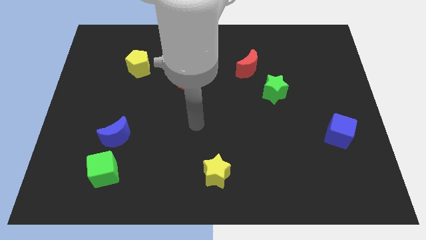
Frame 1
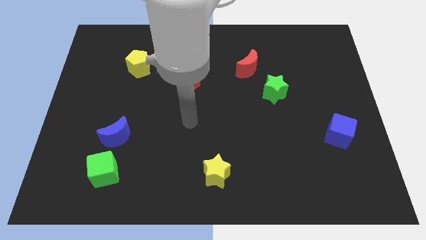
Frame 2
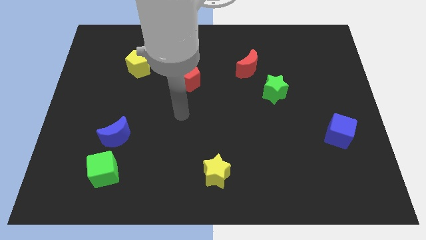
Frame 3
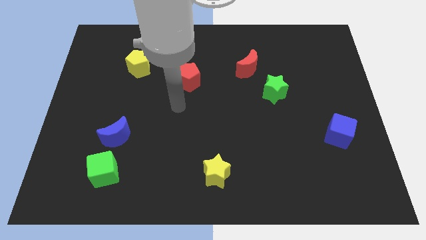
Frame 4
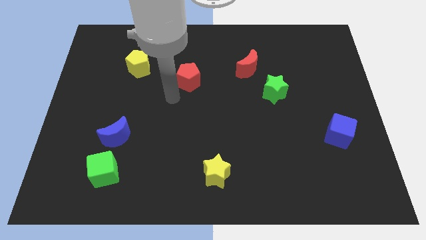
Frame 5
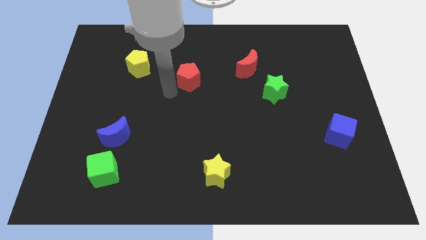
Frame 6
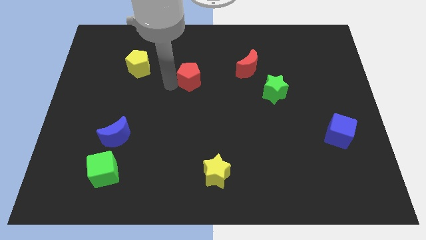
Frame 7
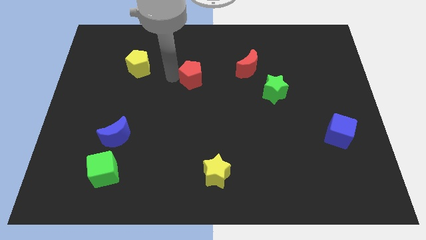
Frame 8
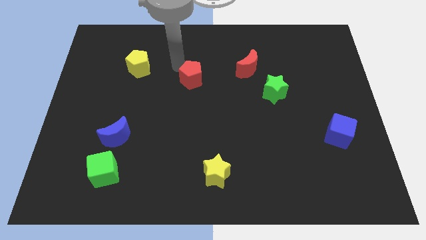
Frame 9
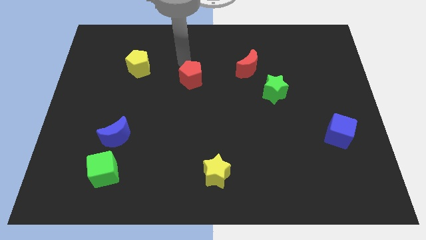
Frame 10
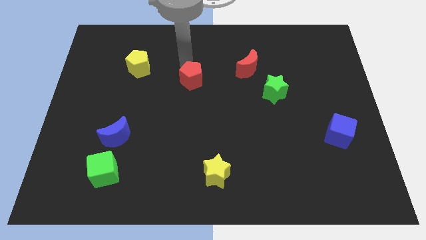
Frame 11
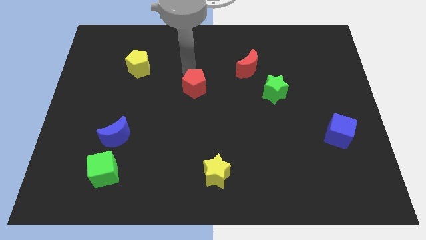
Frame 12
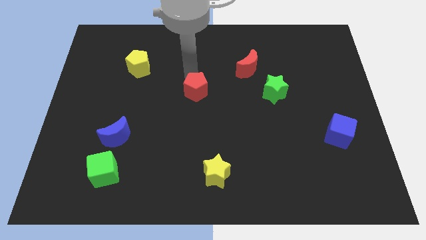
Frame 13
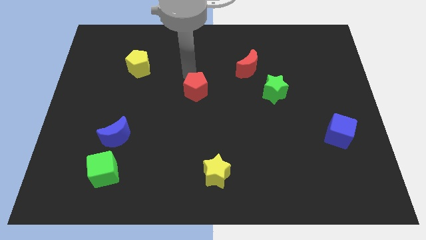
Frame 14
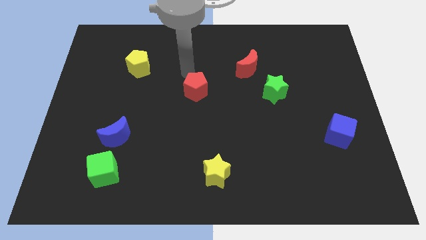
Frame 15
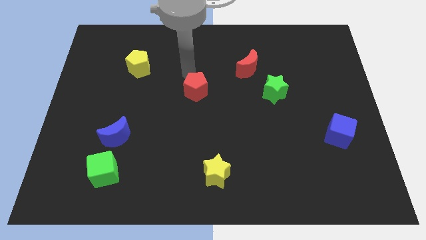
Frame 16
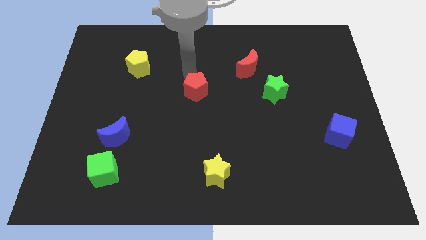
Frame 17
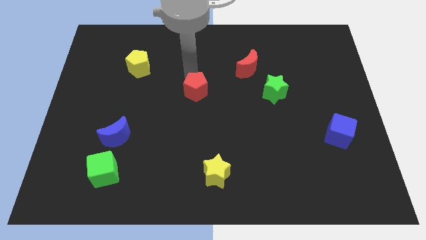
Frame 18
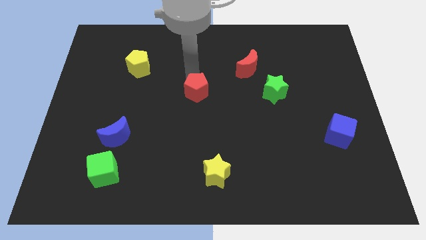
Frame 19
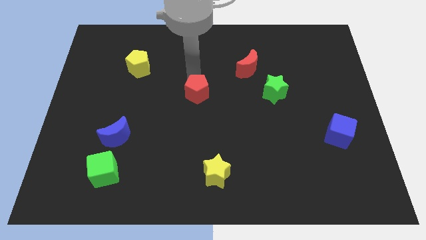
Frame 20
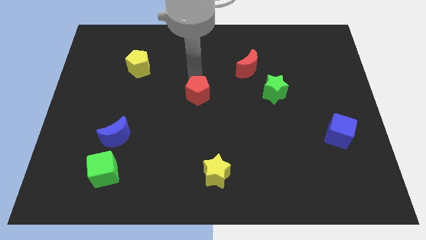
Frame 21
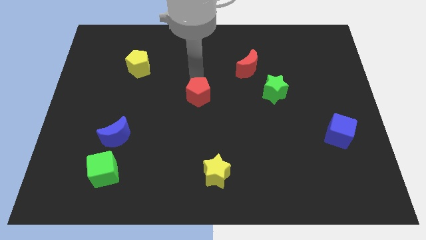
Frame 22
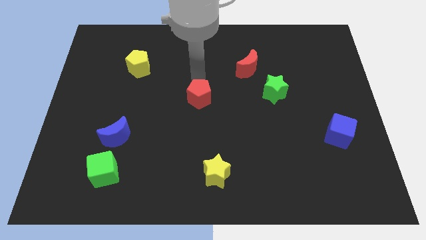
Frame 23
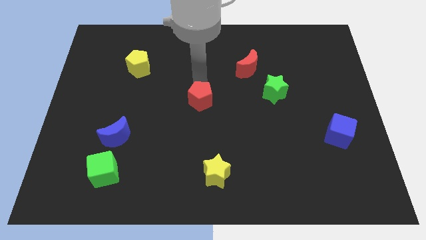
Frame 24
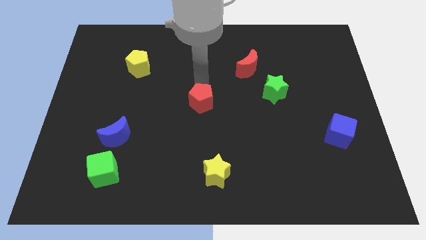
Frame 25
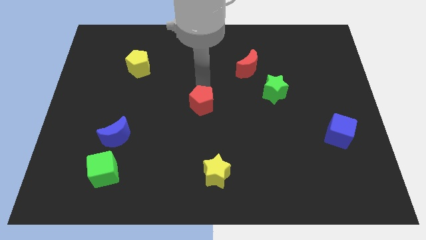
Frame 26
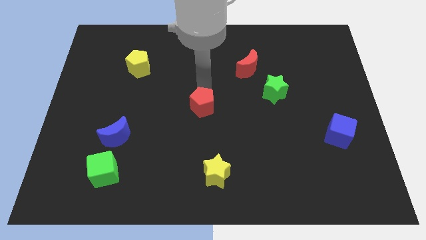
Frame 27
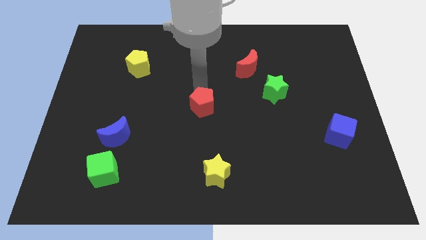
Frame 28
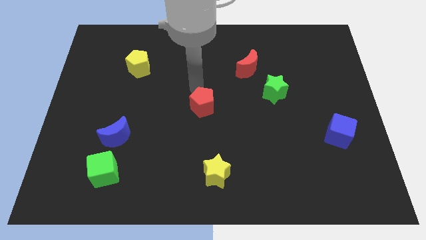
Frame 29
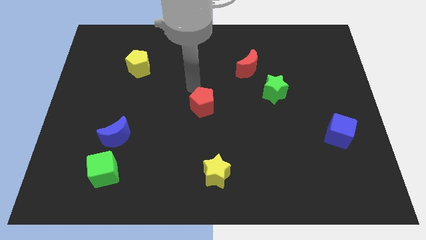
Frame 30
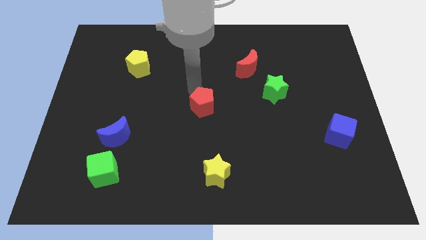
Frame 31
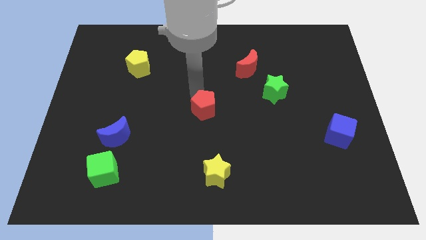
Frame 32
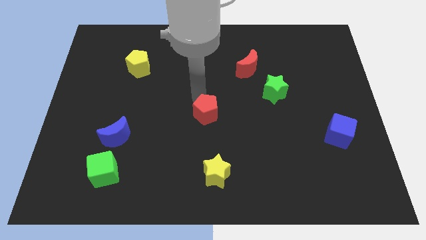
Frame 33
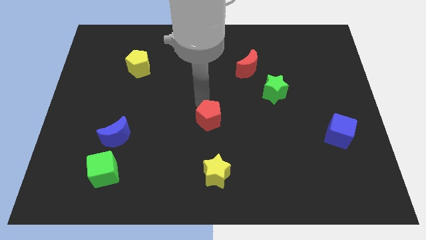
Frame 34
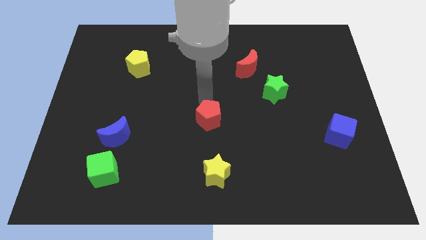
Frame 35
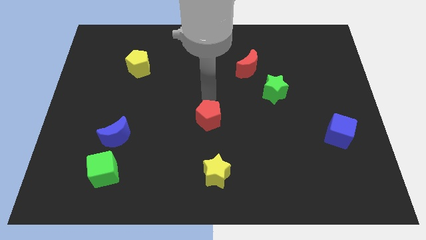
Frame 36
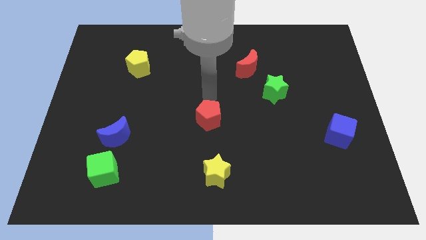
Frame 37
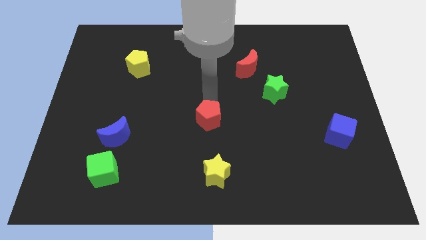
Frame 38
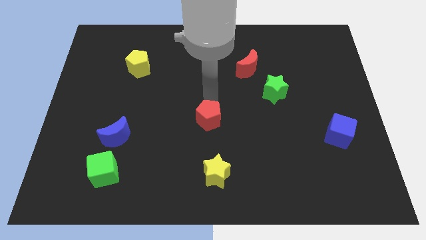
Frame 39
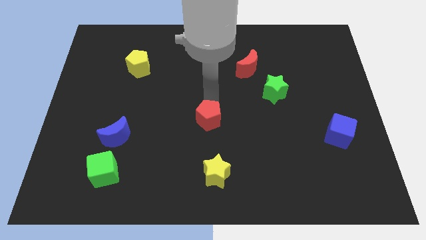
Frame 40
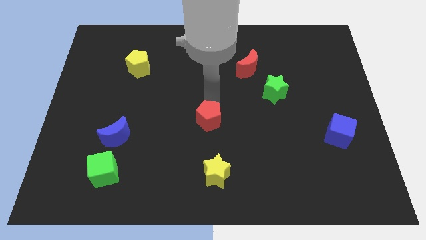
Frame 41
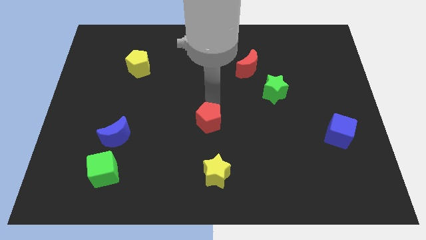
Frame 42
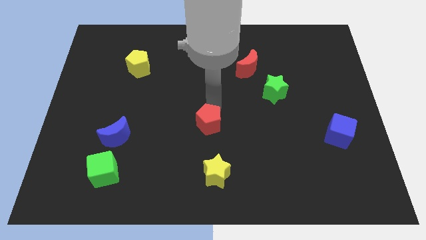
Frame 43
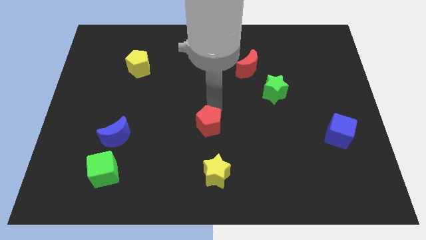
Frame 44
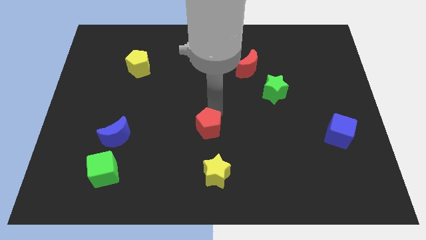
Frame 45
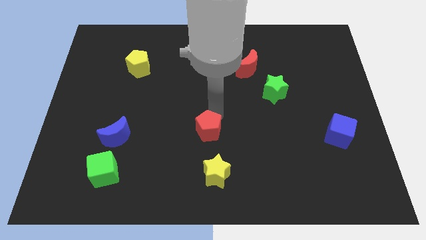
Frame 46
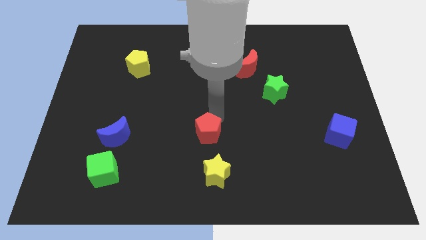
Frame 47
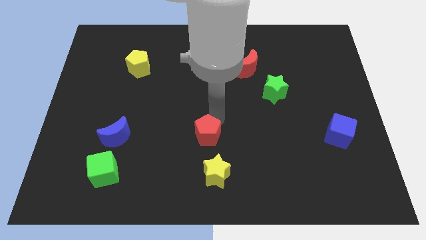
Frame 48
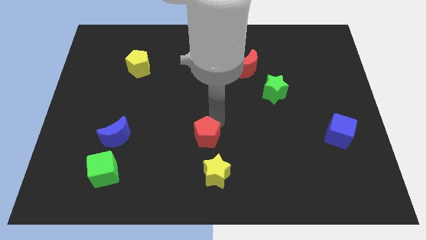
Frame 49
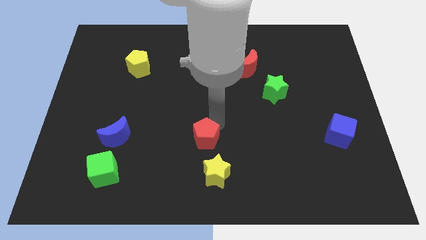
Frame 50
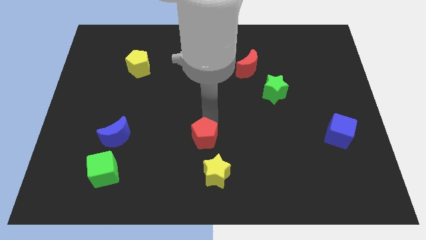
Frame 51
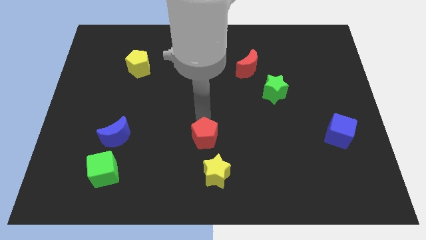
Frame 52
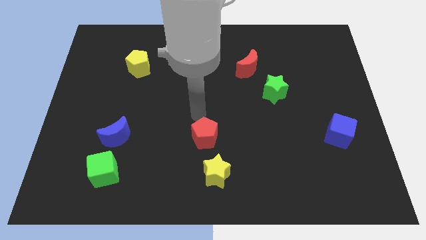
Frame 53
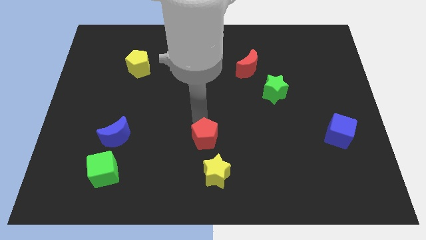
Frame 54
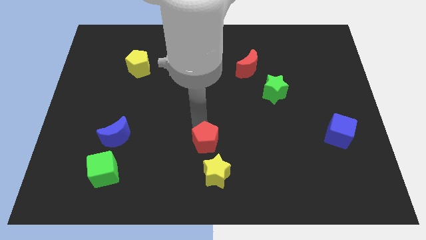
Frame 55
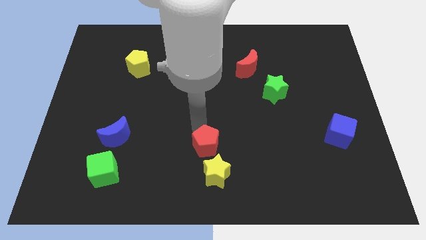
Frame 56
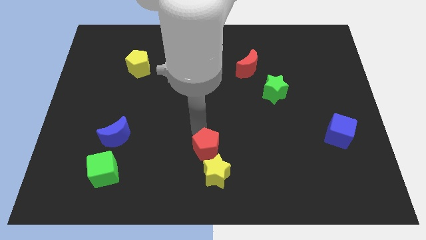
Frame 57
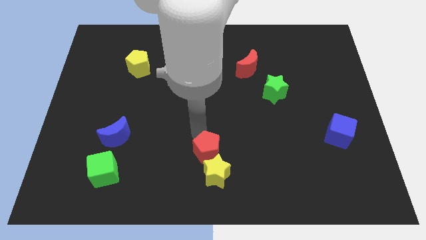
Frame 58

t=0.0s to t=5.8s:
move the red pentagon next to the yellow star

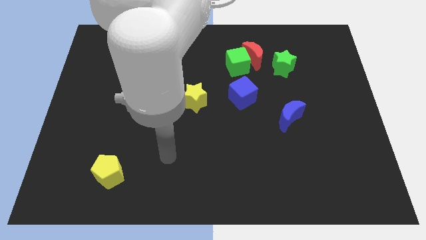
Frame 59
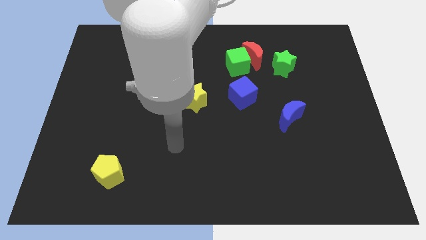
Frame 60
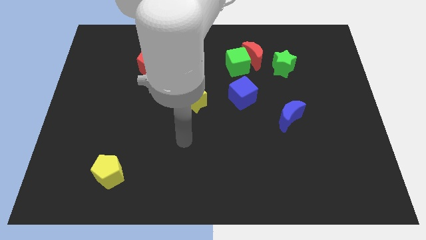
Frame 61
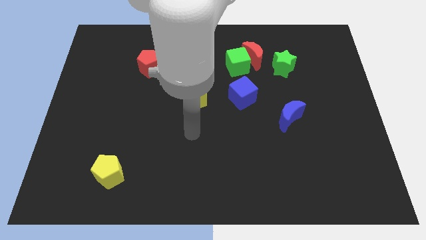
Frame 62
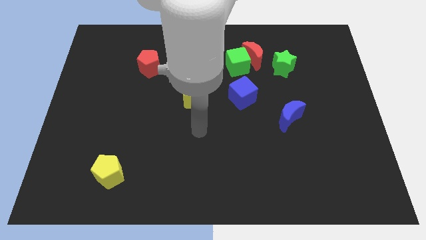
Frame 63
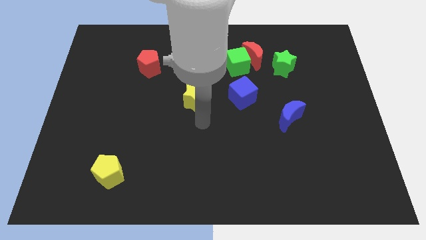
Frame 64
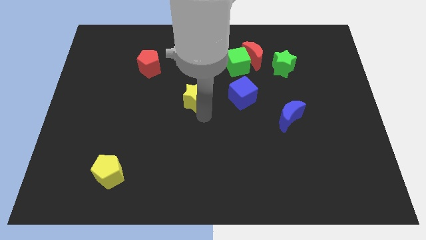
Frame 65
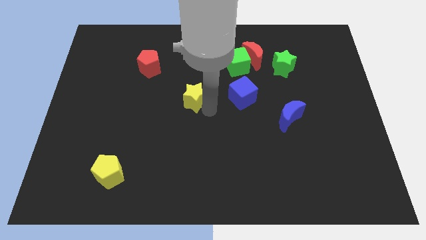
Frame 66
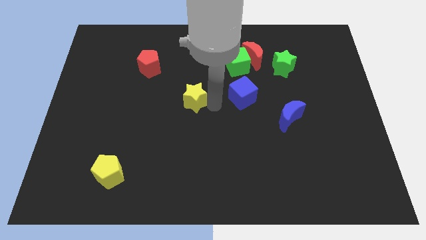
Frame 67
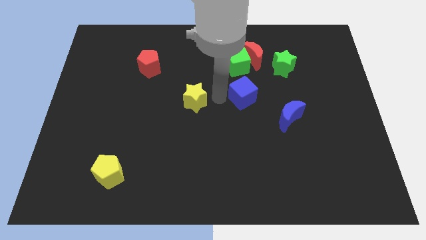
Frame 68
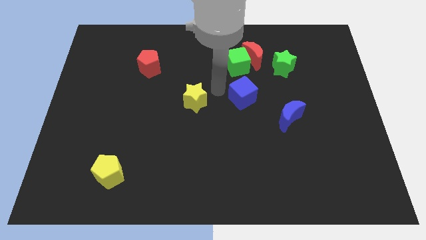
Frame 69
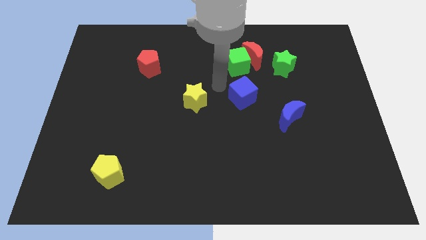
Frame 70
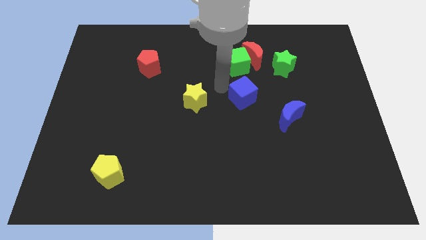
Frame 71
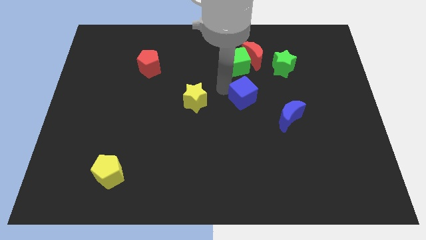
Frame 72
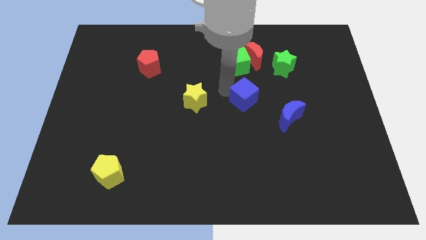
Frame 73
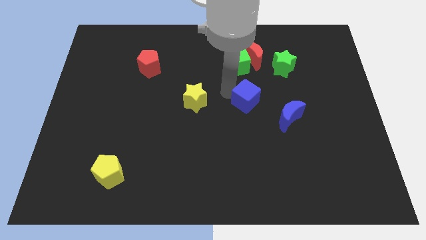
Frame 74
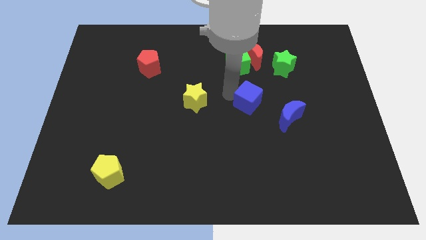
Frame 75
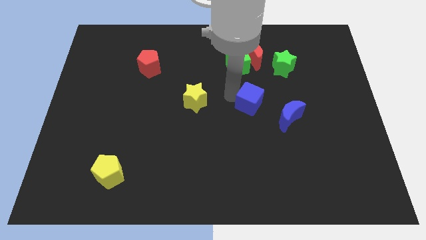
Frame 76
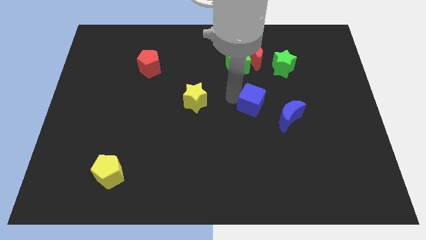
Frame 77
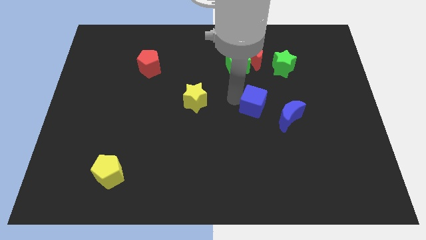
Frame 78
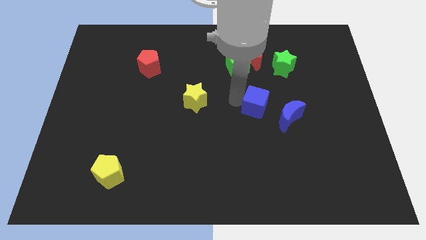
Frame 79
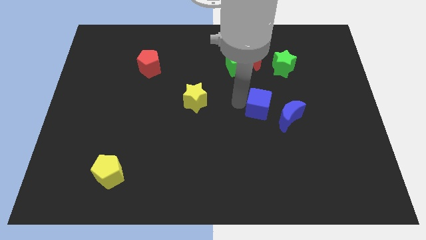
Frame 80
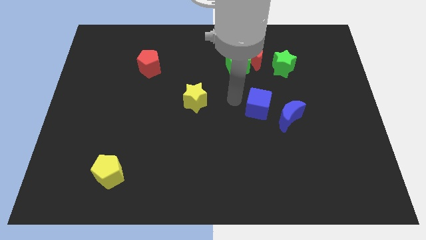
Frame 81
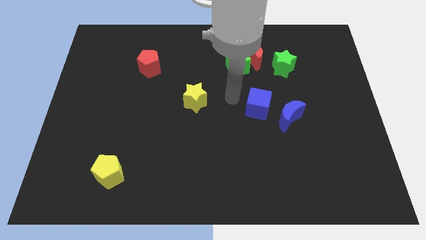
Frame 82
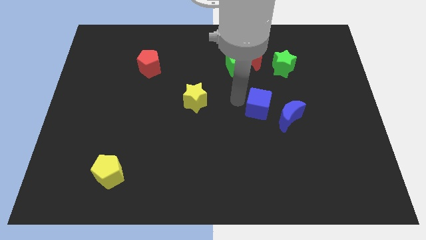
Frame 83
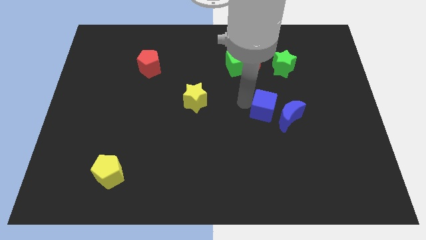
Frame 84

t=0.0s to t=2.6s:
push the blue cube close to the blue moon
